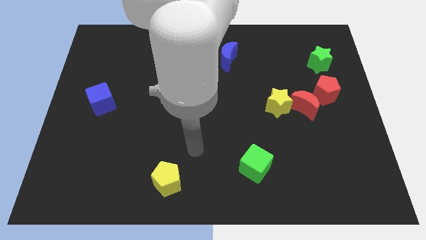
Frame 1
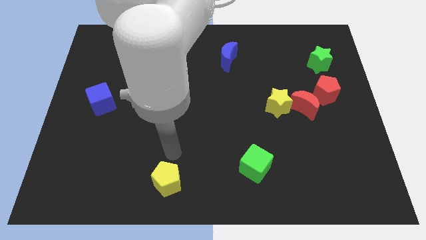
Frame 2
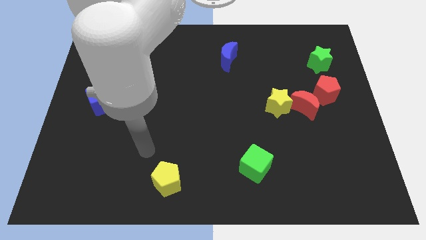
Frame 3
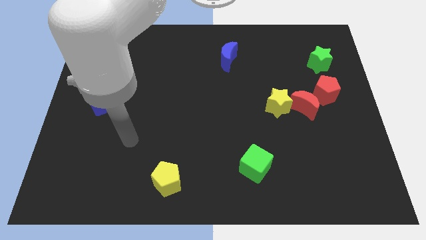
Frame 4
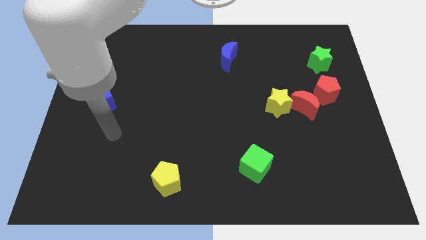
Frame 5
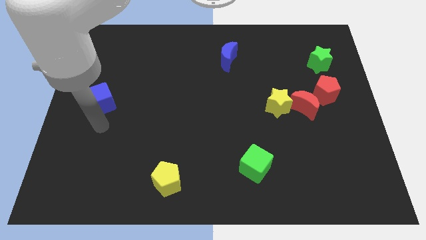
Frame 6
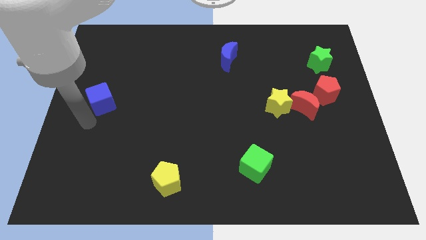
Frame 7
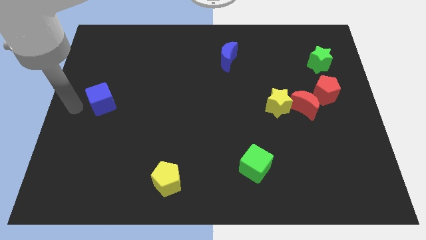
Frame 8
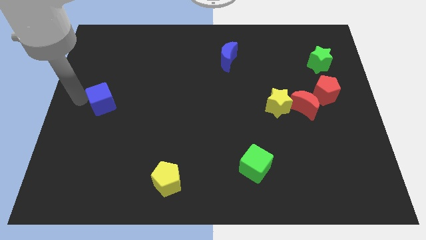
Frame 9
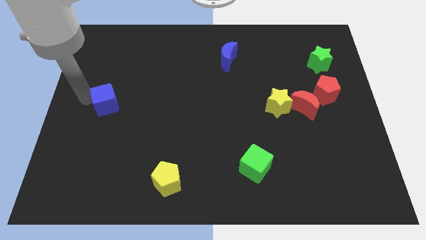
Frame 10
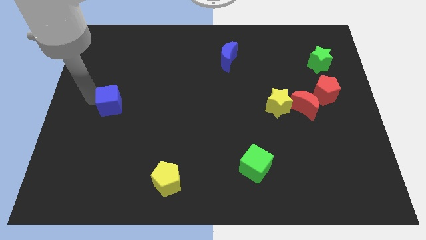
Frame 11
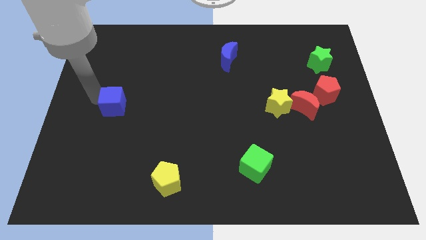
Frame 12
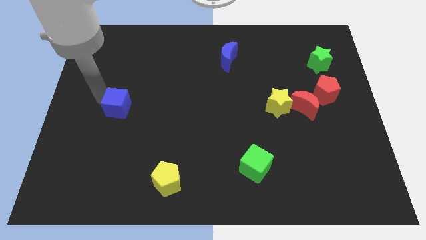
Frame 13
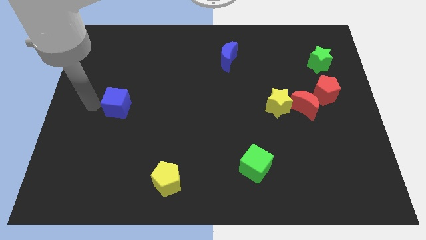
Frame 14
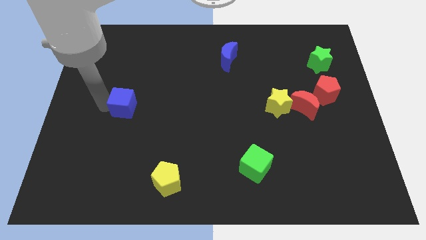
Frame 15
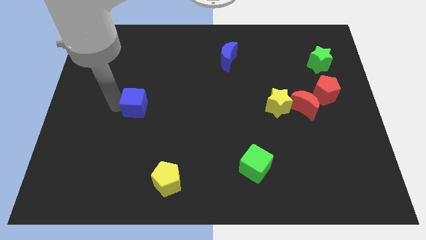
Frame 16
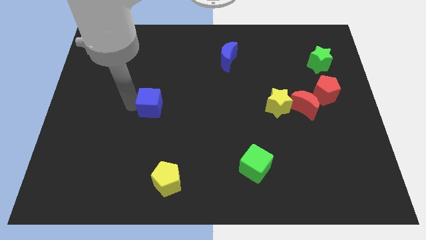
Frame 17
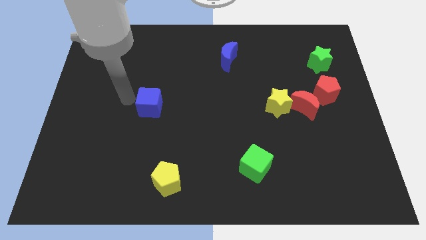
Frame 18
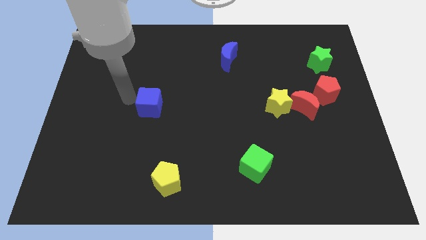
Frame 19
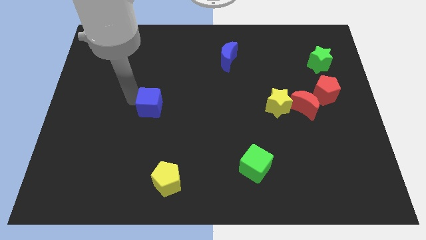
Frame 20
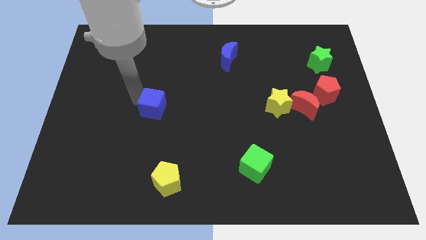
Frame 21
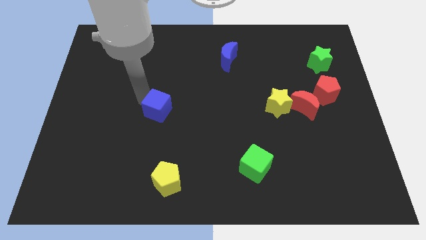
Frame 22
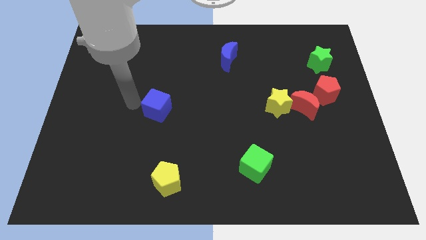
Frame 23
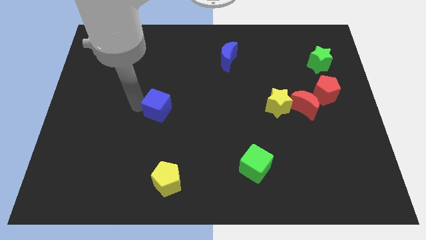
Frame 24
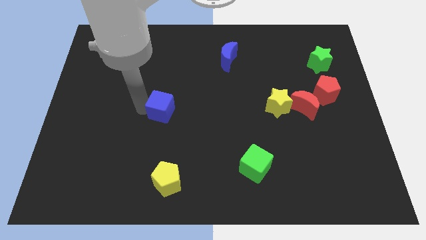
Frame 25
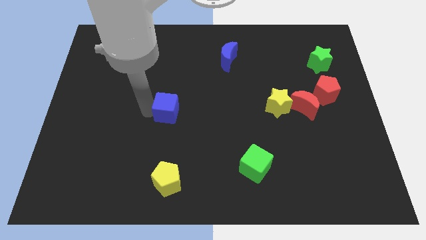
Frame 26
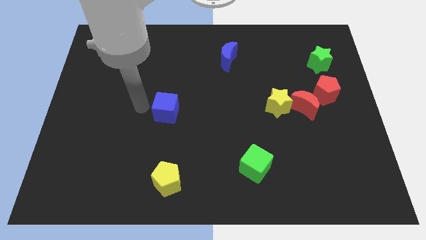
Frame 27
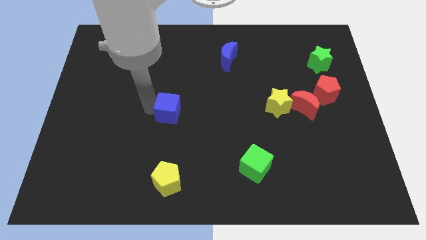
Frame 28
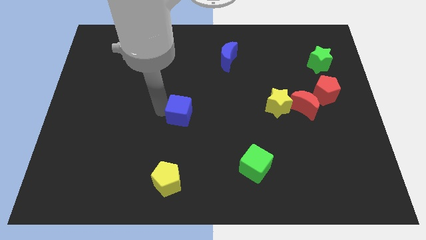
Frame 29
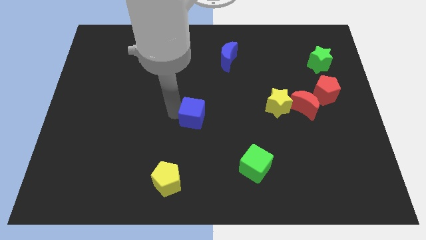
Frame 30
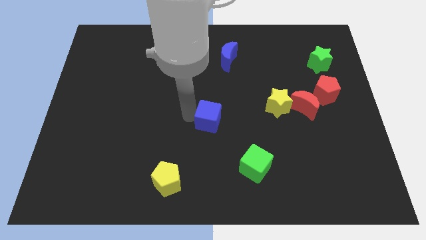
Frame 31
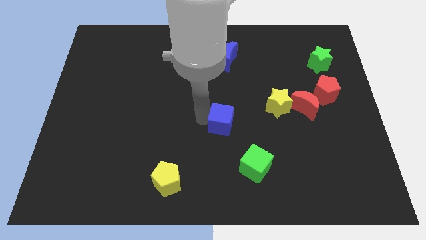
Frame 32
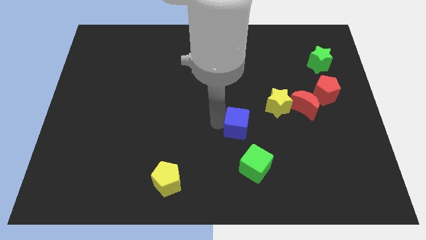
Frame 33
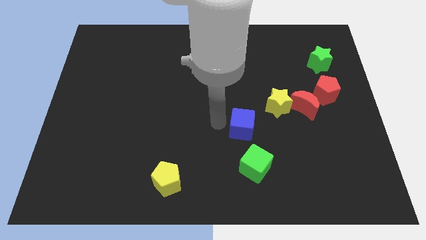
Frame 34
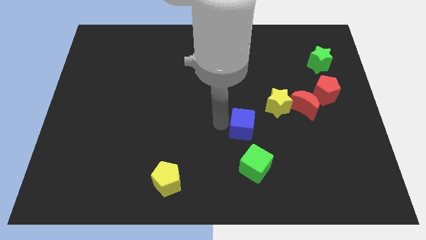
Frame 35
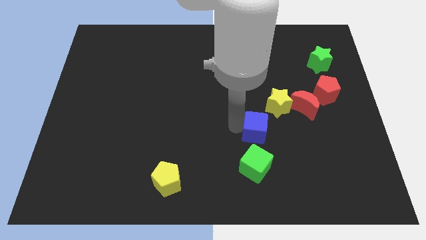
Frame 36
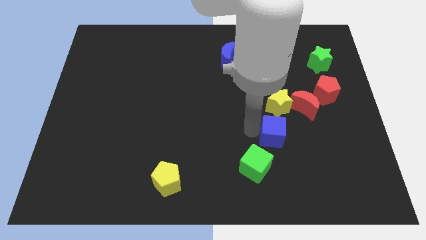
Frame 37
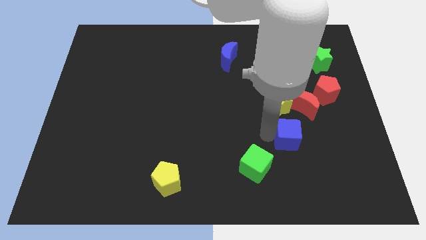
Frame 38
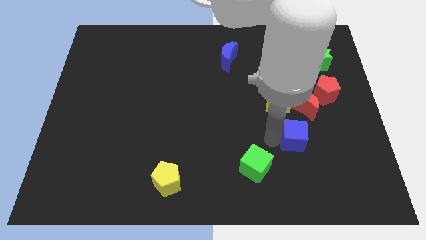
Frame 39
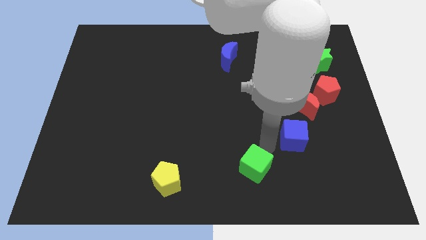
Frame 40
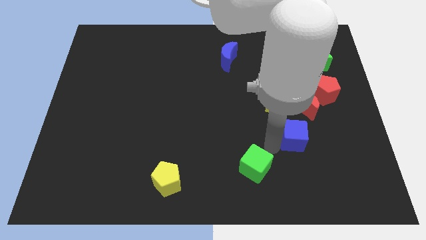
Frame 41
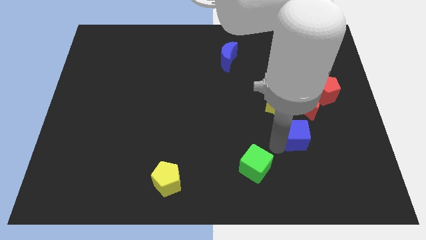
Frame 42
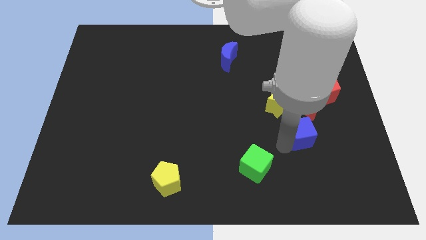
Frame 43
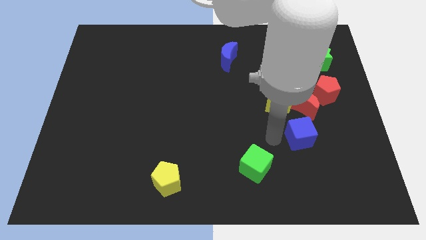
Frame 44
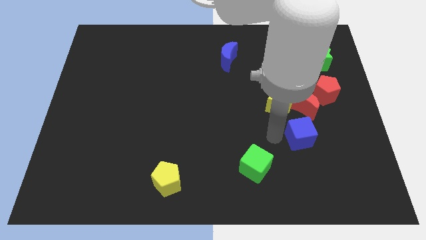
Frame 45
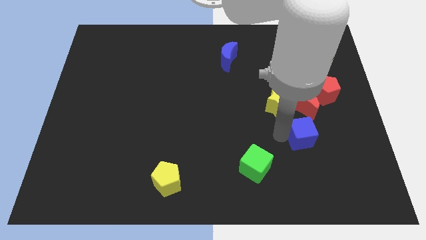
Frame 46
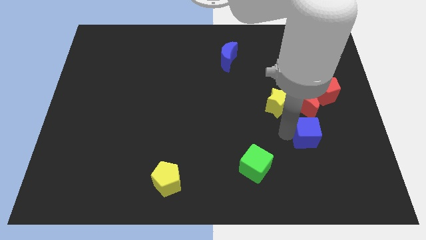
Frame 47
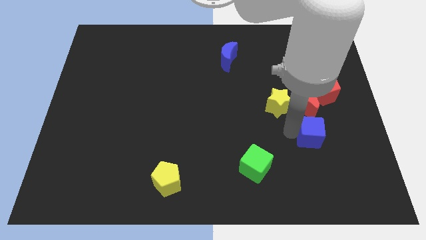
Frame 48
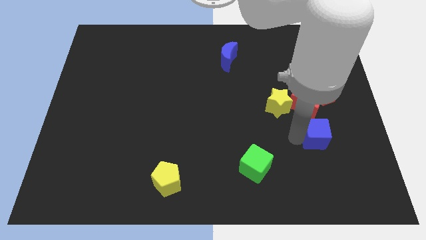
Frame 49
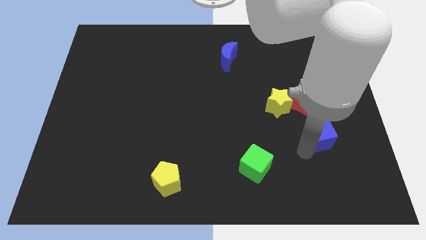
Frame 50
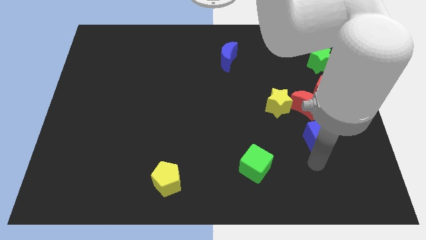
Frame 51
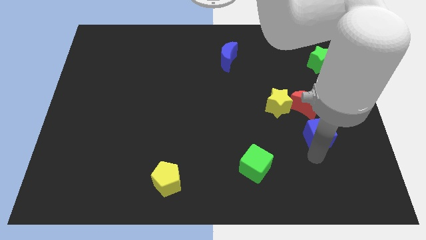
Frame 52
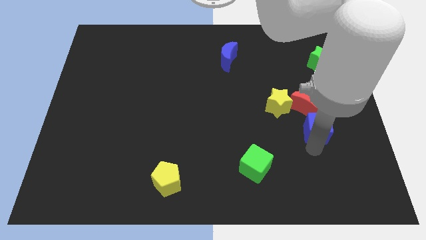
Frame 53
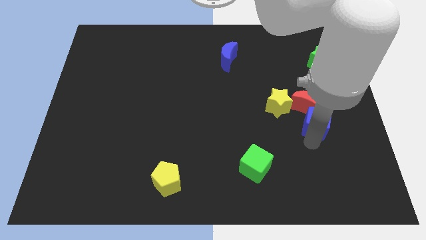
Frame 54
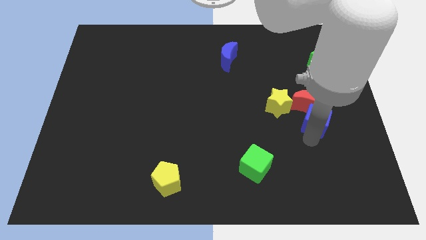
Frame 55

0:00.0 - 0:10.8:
push the blue cube to the right of the yellow star

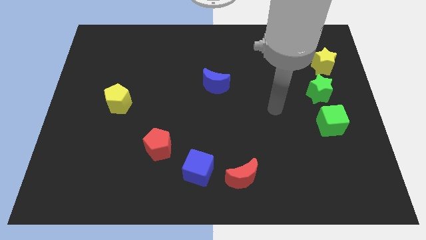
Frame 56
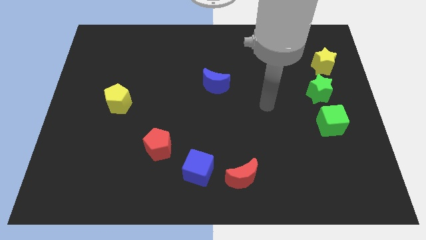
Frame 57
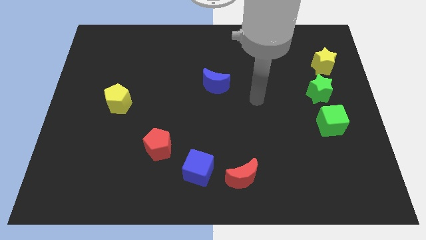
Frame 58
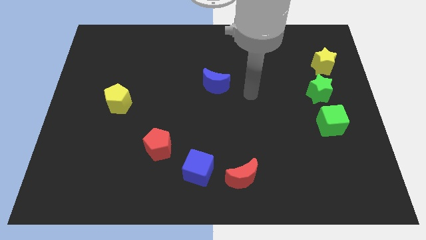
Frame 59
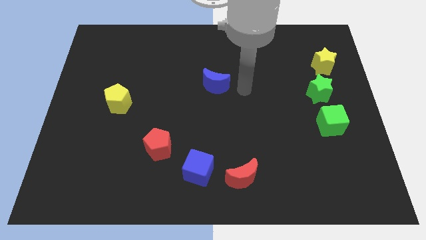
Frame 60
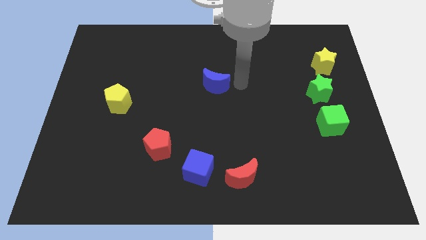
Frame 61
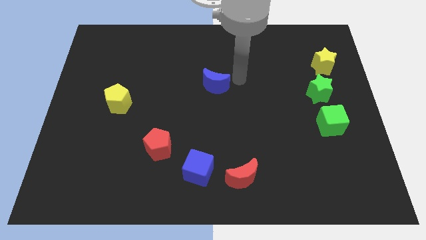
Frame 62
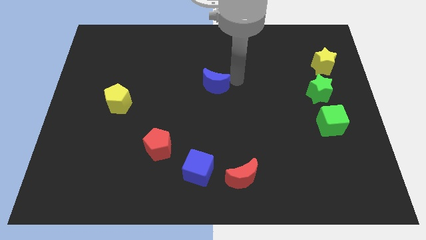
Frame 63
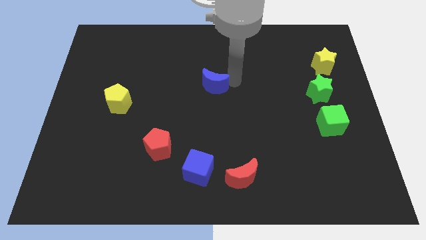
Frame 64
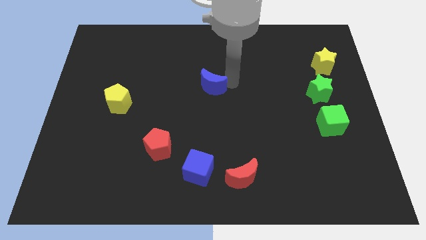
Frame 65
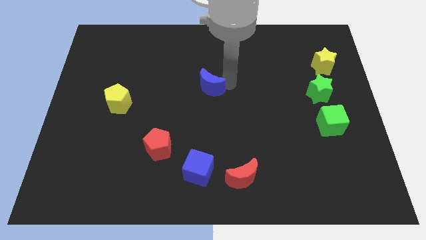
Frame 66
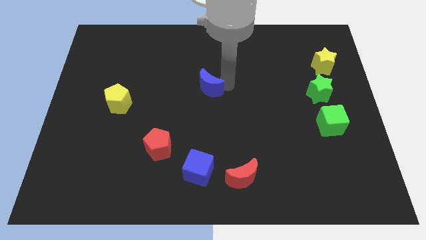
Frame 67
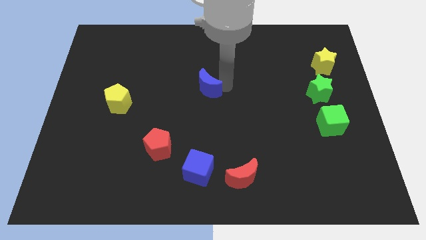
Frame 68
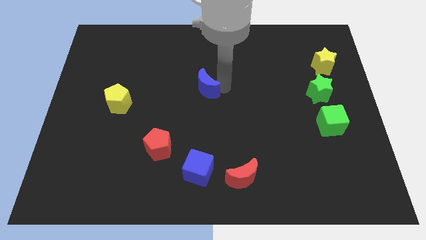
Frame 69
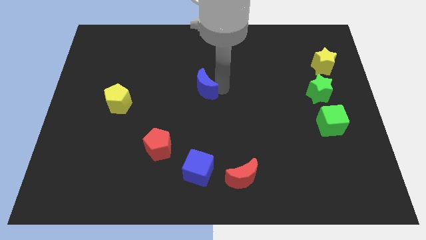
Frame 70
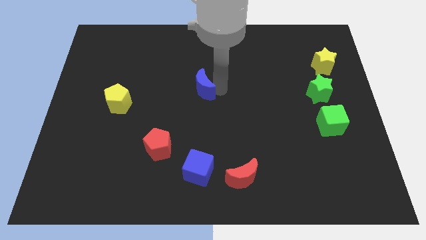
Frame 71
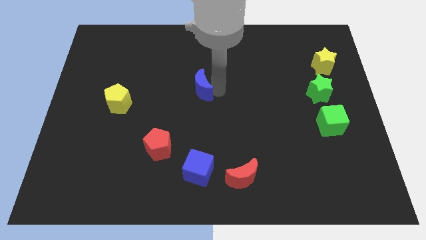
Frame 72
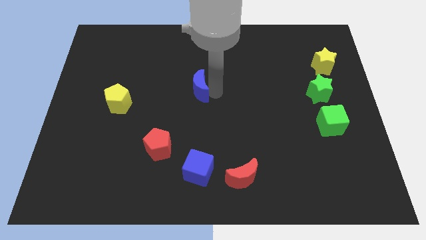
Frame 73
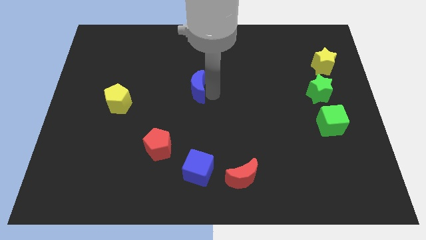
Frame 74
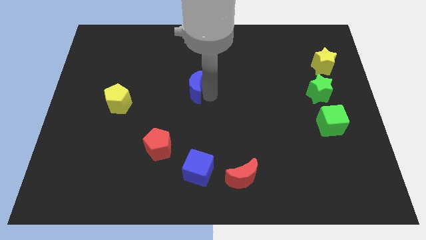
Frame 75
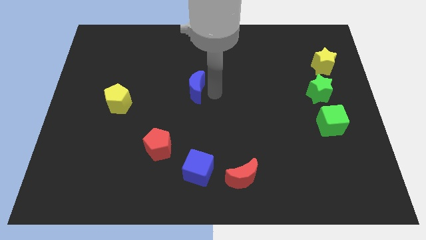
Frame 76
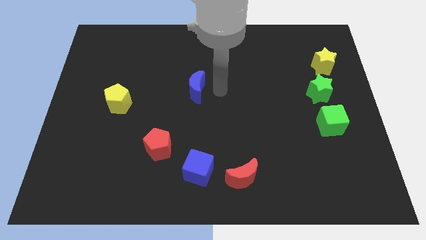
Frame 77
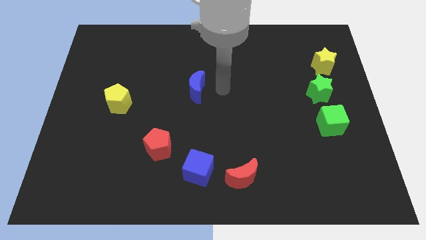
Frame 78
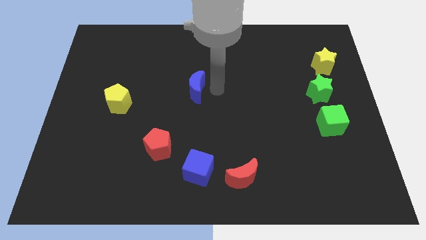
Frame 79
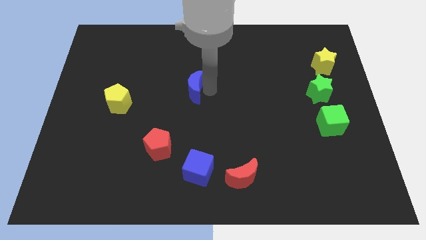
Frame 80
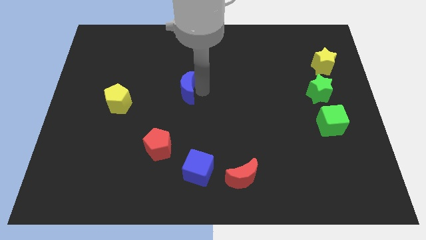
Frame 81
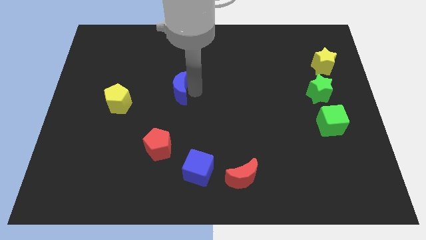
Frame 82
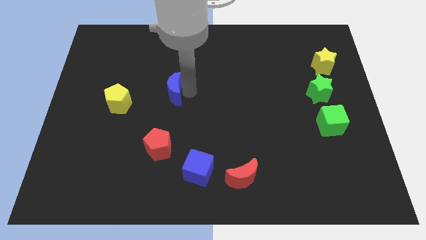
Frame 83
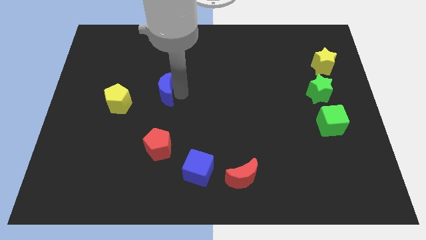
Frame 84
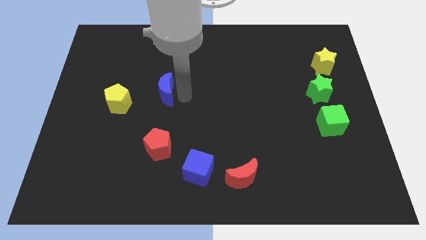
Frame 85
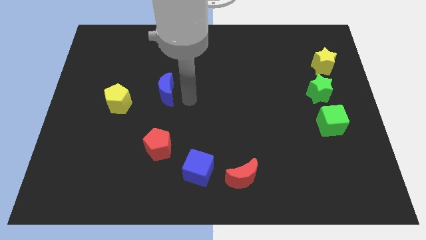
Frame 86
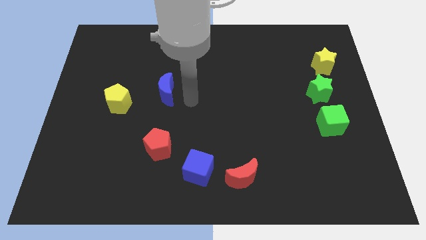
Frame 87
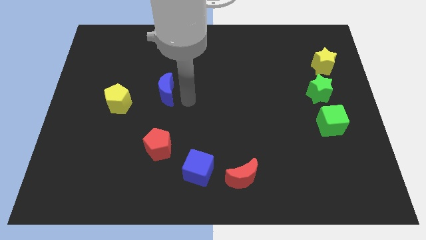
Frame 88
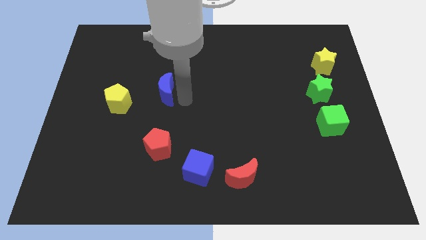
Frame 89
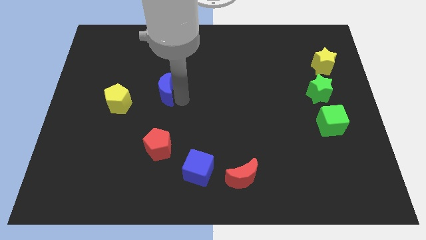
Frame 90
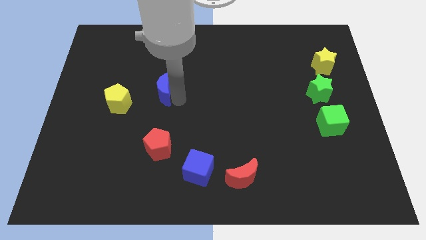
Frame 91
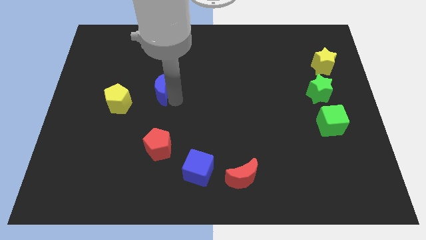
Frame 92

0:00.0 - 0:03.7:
move the blue moon to the top right side of the yellow pentagon
